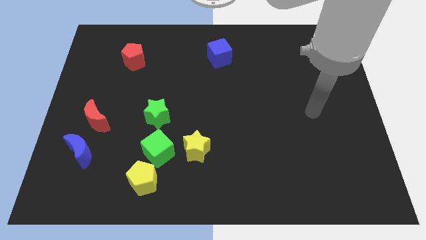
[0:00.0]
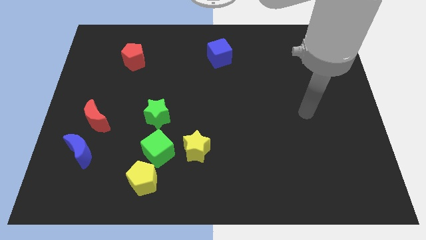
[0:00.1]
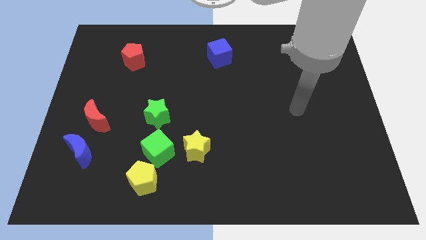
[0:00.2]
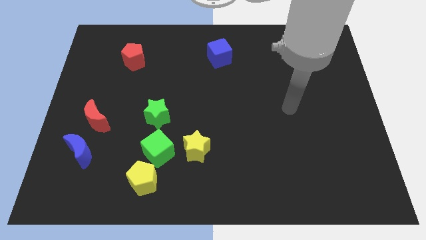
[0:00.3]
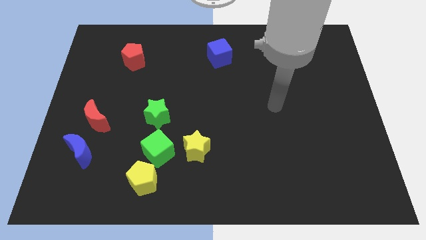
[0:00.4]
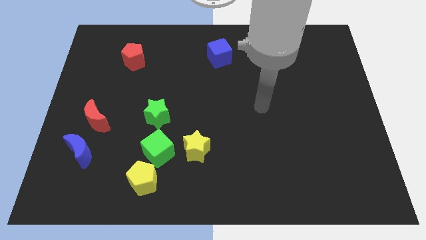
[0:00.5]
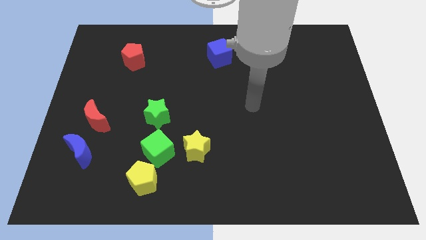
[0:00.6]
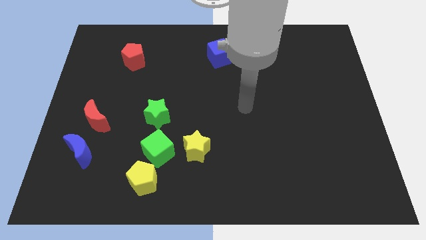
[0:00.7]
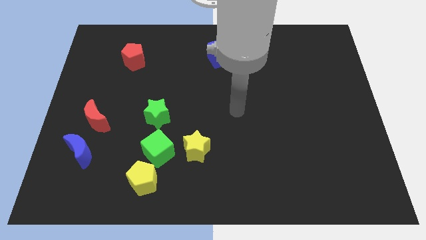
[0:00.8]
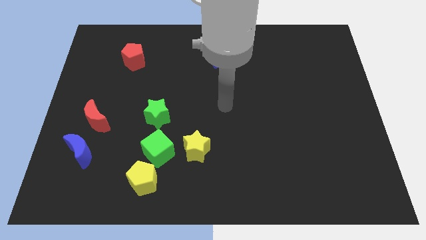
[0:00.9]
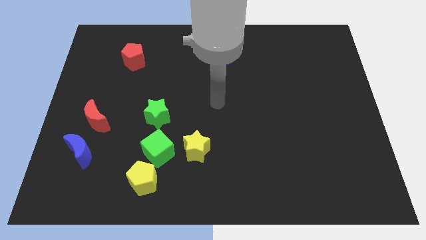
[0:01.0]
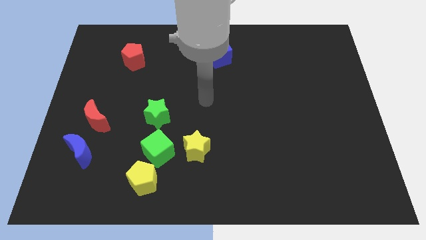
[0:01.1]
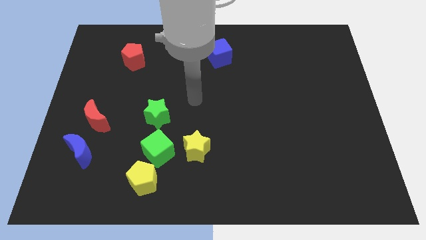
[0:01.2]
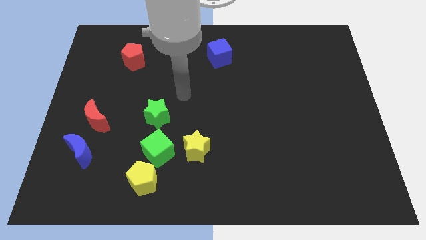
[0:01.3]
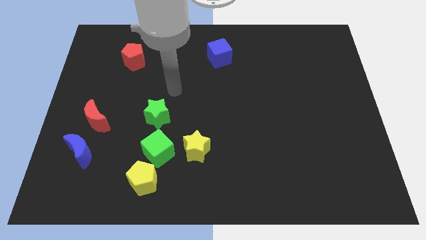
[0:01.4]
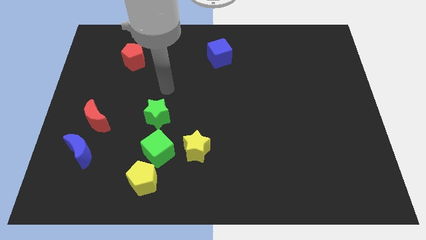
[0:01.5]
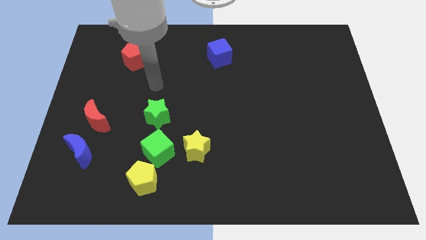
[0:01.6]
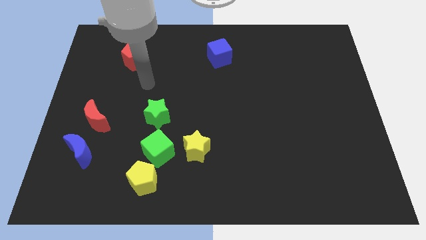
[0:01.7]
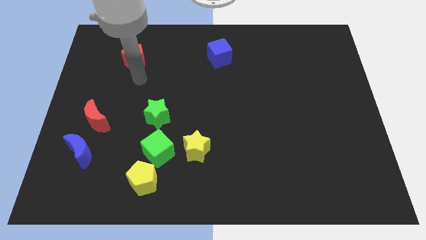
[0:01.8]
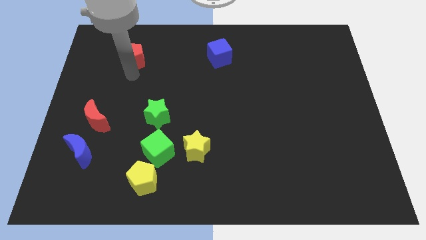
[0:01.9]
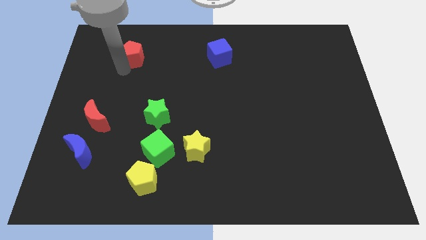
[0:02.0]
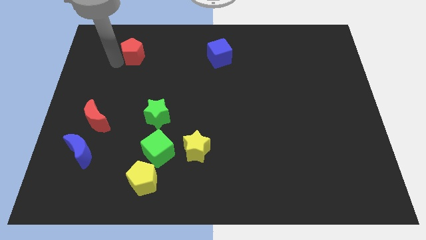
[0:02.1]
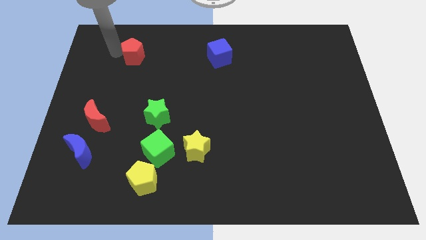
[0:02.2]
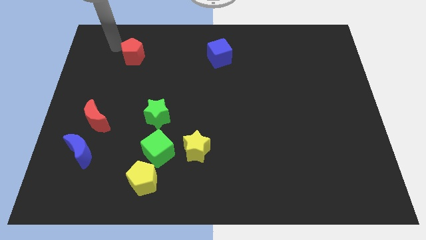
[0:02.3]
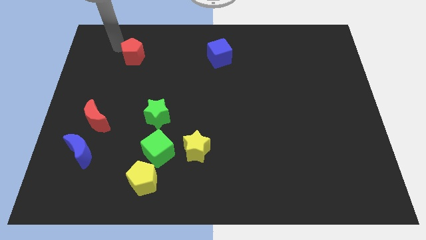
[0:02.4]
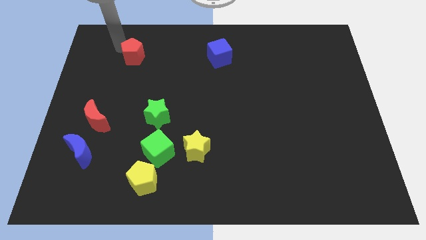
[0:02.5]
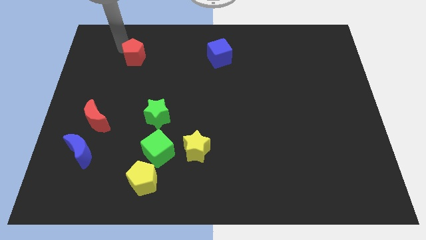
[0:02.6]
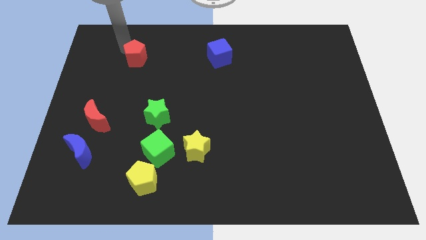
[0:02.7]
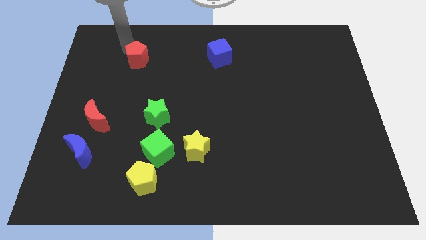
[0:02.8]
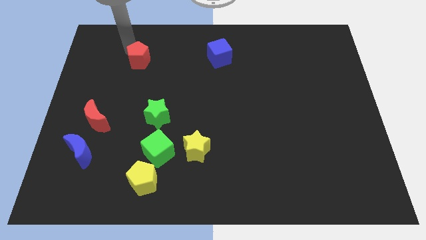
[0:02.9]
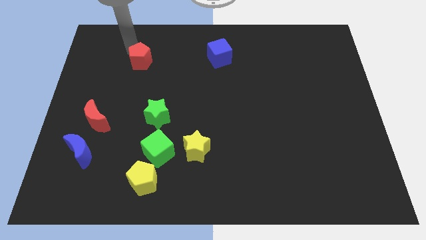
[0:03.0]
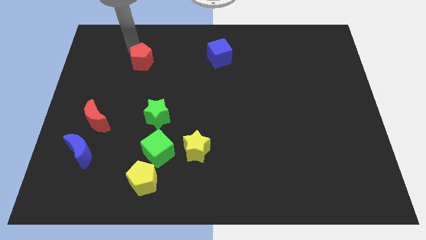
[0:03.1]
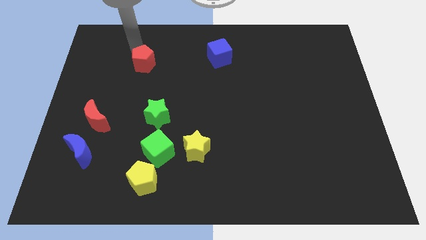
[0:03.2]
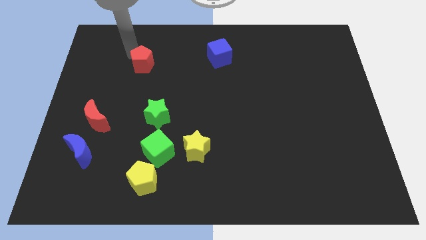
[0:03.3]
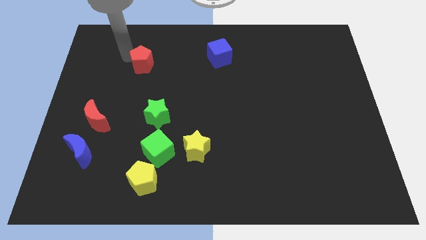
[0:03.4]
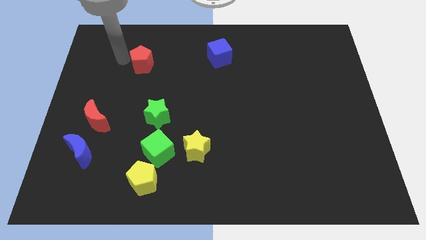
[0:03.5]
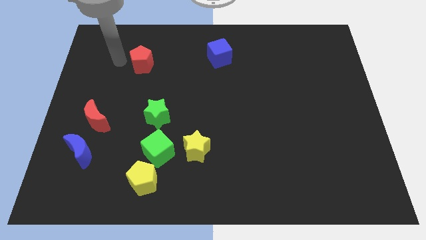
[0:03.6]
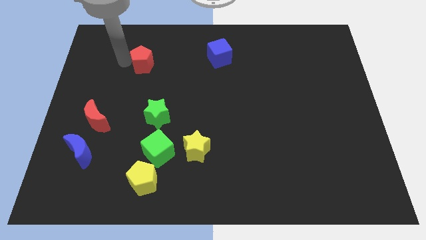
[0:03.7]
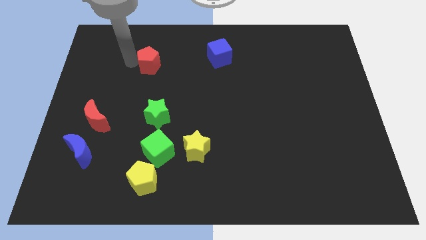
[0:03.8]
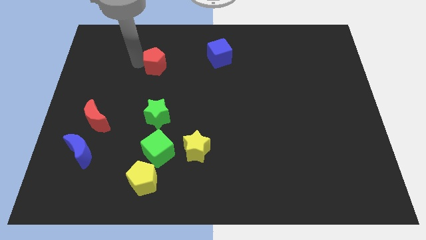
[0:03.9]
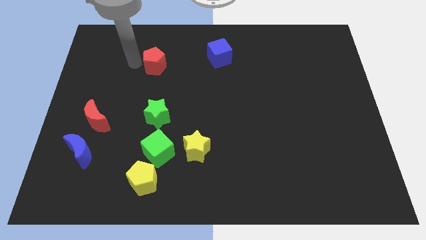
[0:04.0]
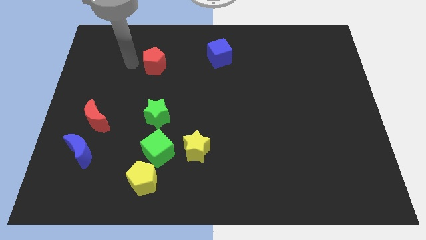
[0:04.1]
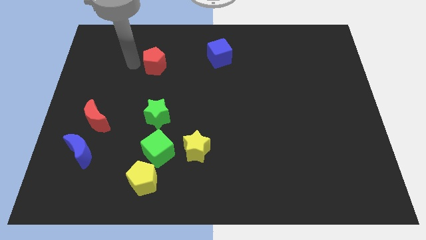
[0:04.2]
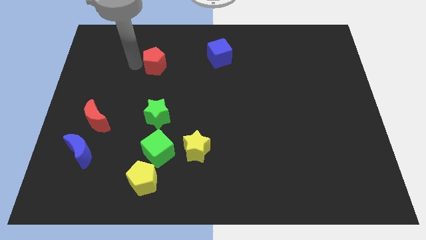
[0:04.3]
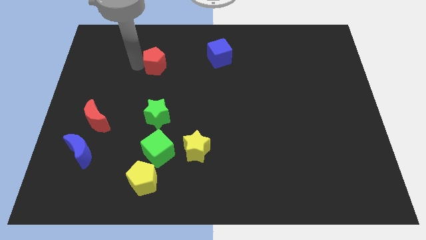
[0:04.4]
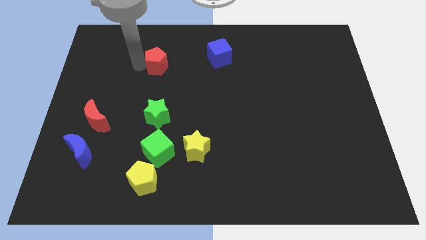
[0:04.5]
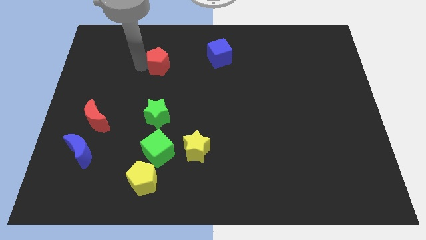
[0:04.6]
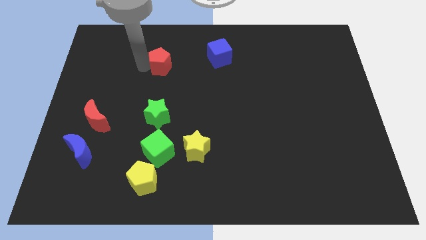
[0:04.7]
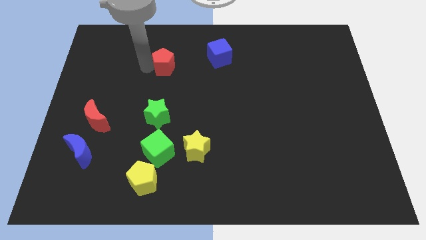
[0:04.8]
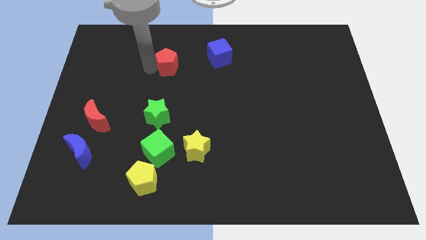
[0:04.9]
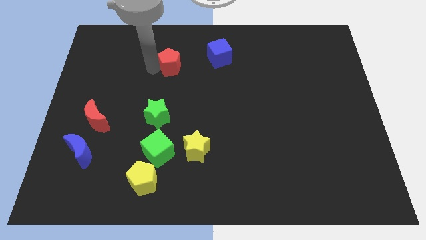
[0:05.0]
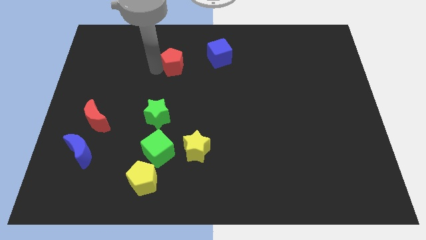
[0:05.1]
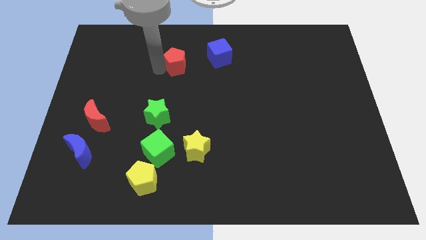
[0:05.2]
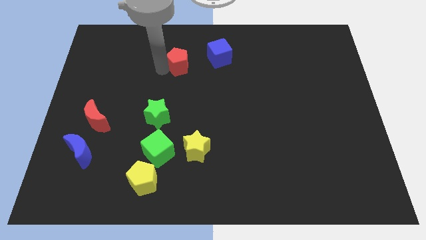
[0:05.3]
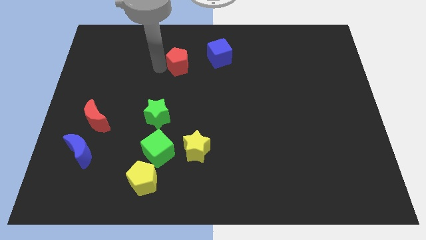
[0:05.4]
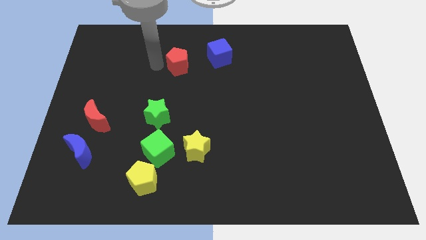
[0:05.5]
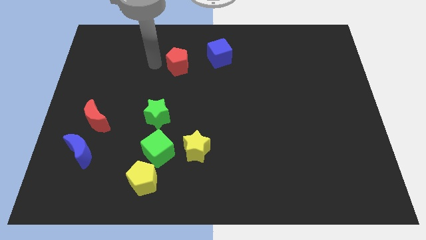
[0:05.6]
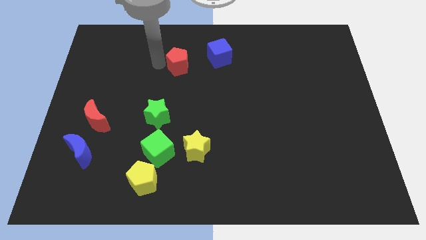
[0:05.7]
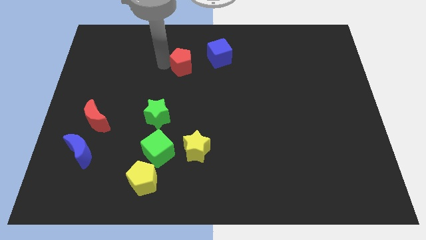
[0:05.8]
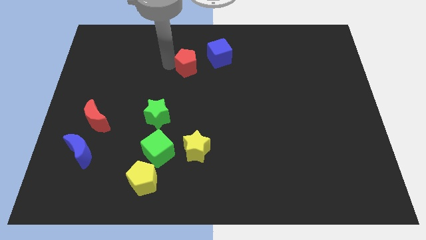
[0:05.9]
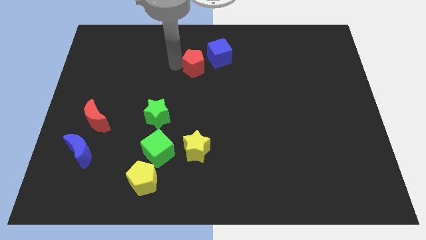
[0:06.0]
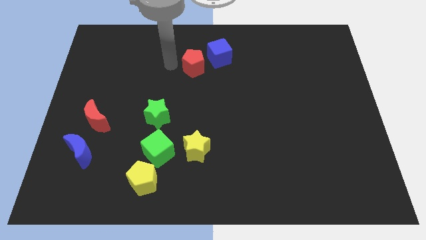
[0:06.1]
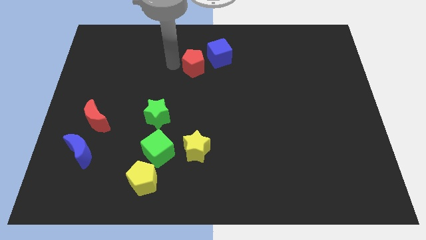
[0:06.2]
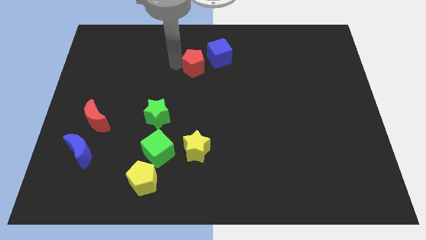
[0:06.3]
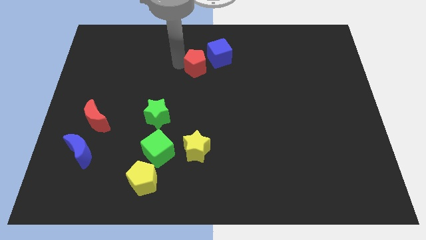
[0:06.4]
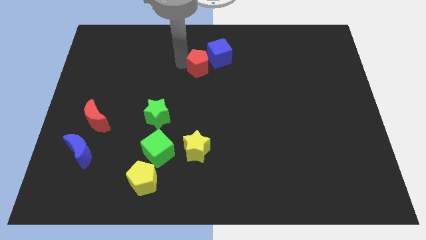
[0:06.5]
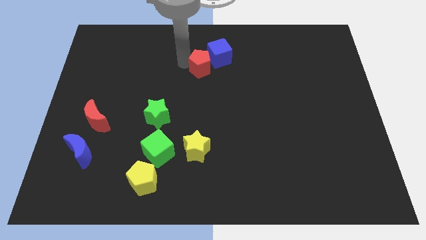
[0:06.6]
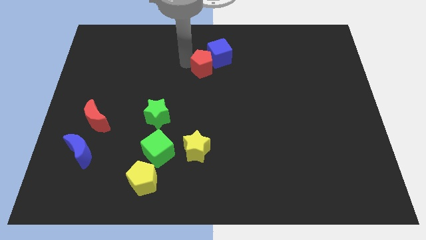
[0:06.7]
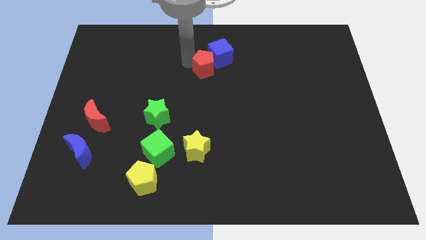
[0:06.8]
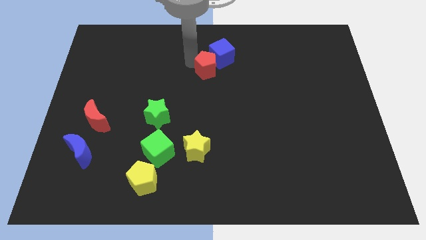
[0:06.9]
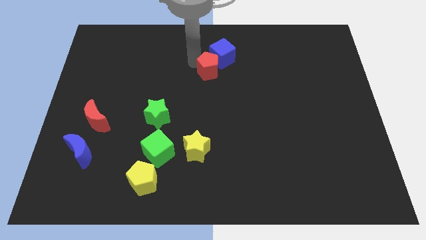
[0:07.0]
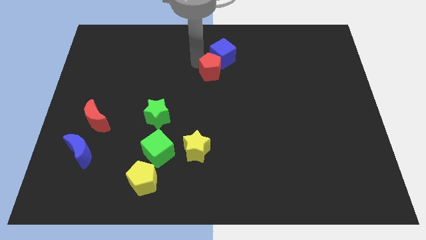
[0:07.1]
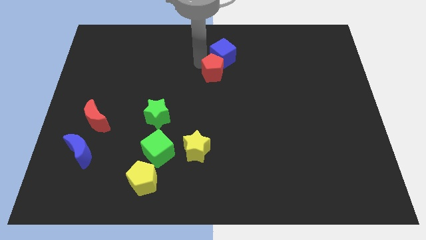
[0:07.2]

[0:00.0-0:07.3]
push the red pentagon to the right

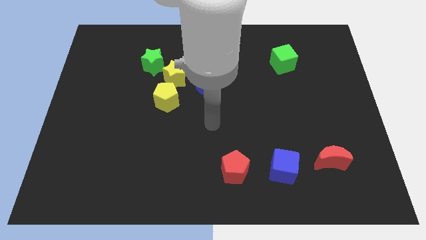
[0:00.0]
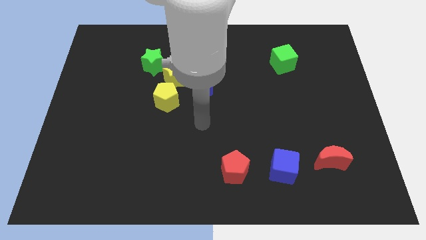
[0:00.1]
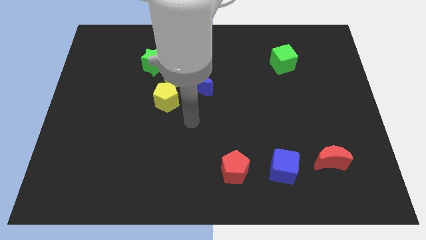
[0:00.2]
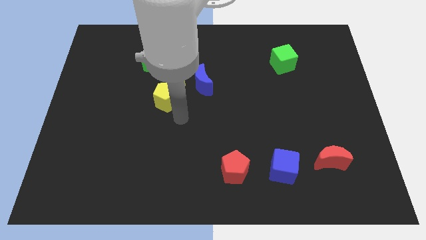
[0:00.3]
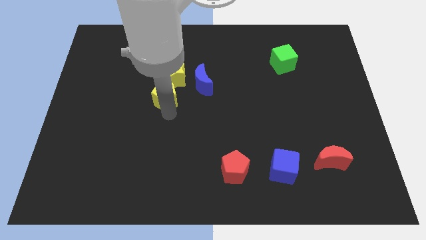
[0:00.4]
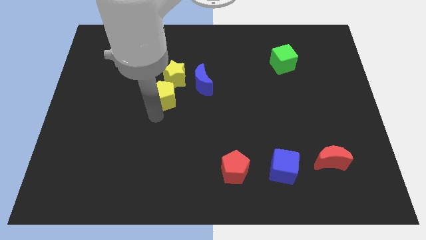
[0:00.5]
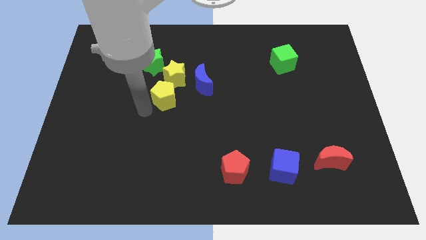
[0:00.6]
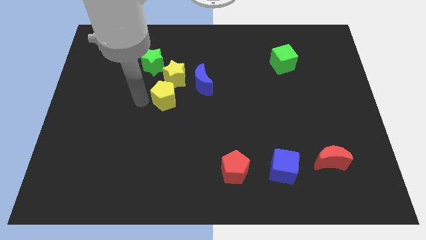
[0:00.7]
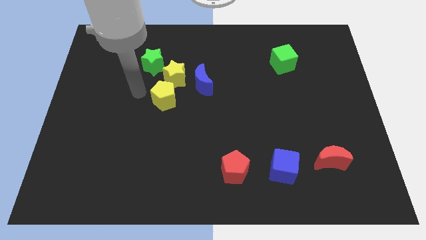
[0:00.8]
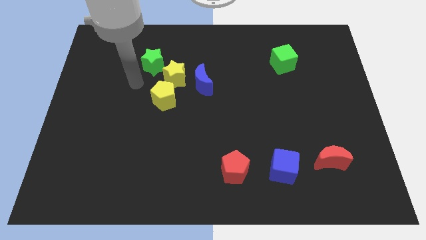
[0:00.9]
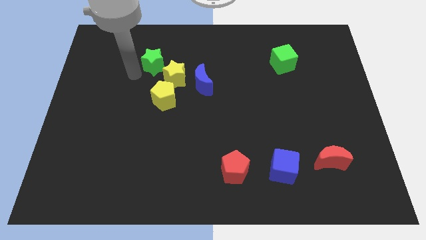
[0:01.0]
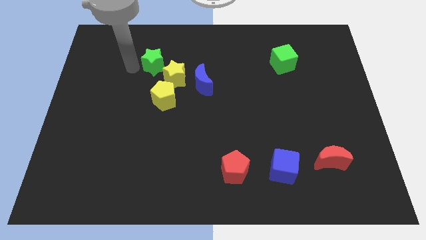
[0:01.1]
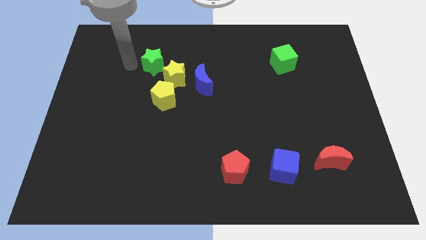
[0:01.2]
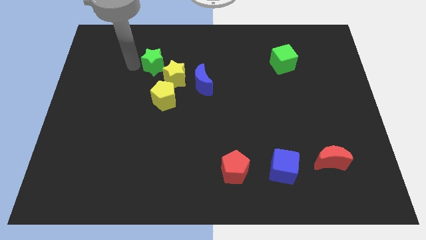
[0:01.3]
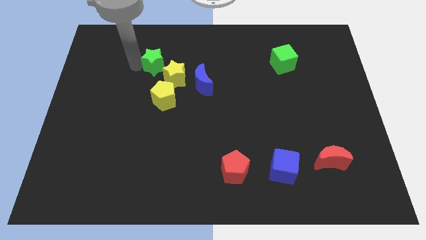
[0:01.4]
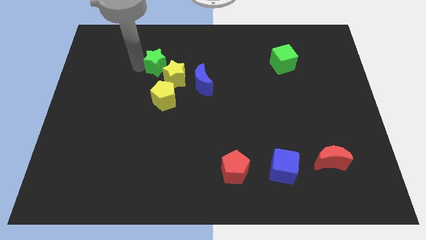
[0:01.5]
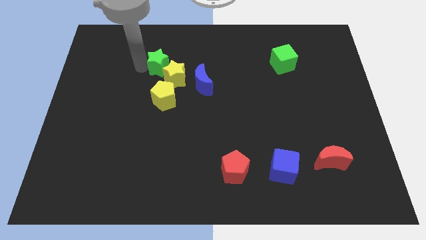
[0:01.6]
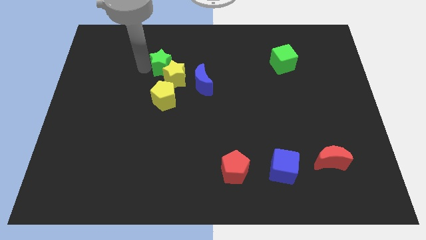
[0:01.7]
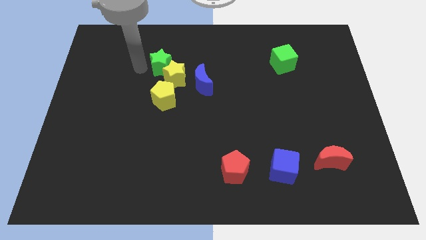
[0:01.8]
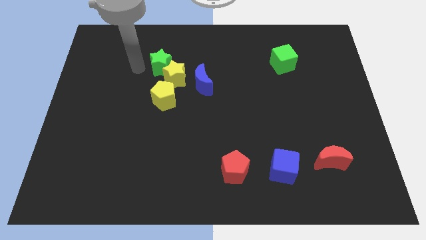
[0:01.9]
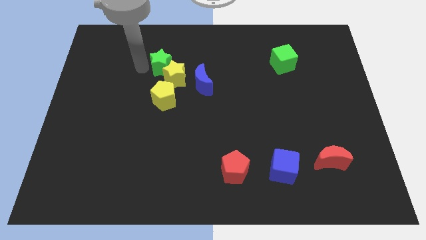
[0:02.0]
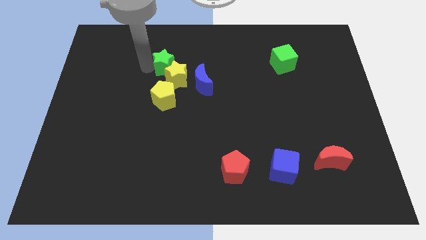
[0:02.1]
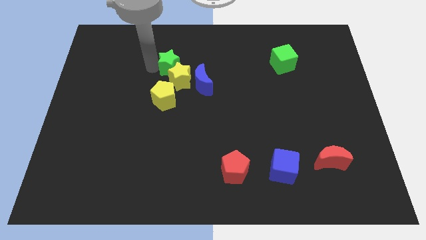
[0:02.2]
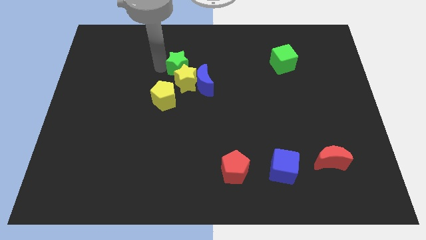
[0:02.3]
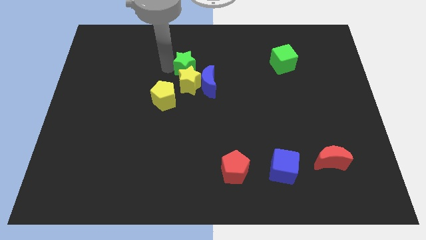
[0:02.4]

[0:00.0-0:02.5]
slide the green star a bit right
